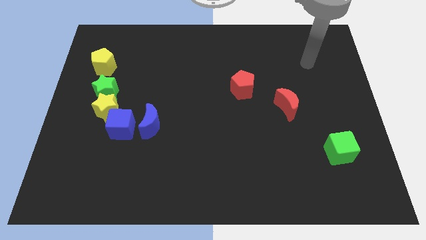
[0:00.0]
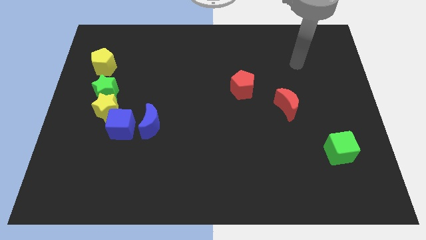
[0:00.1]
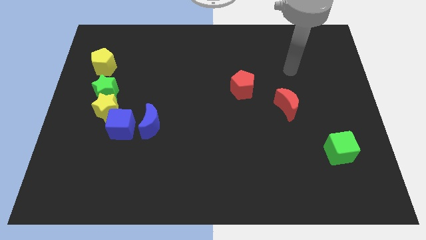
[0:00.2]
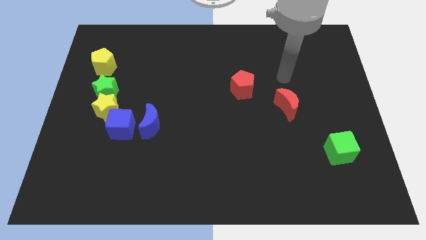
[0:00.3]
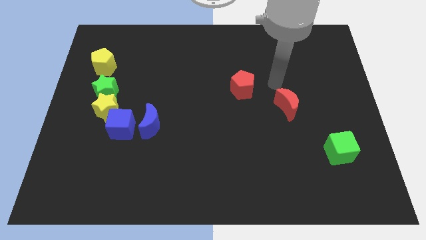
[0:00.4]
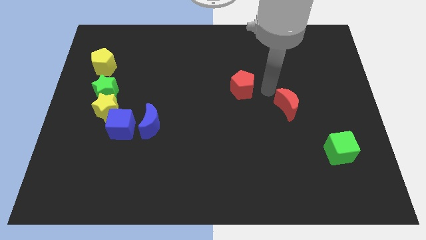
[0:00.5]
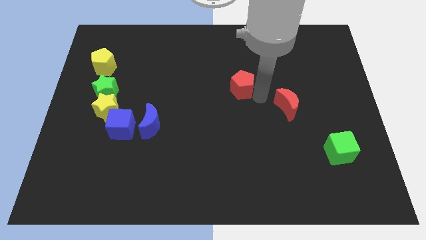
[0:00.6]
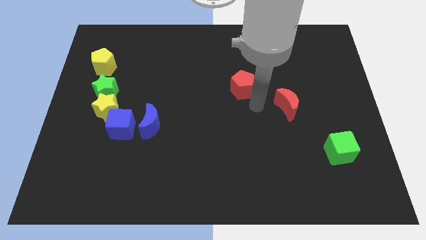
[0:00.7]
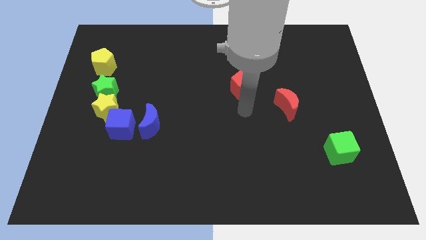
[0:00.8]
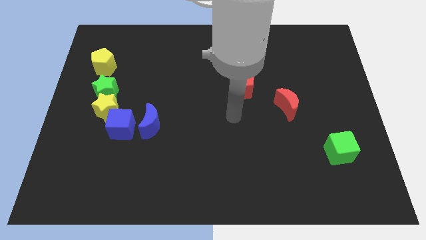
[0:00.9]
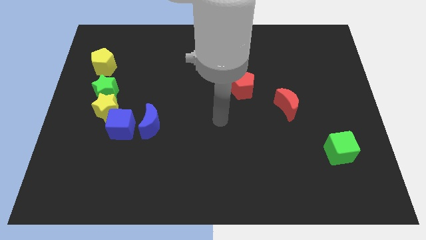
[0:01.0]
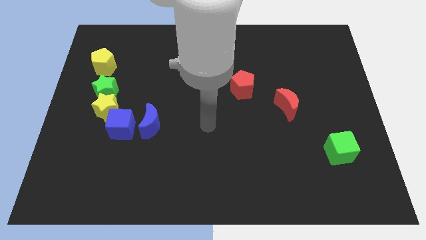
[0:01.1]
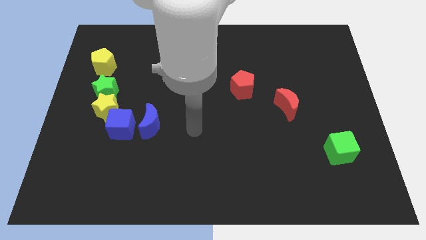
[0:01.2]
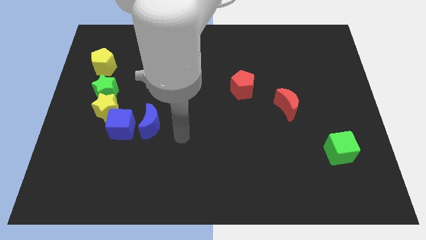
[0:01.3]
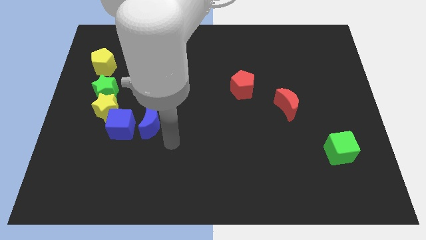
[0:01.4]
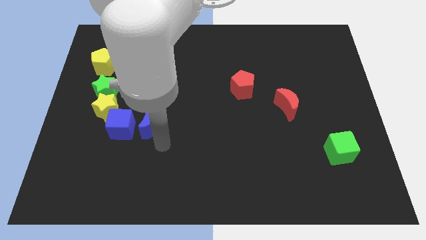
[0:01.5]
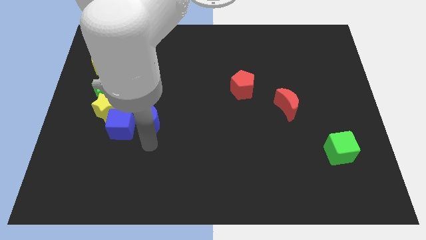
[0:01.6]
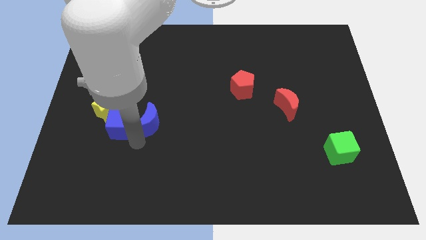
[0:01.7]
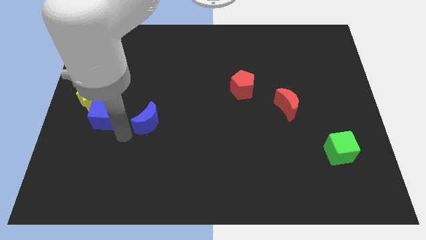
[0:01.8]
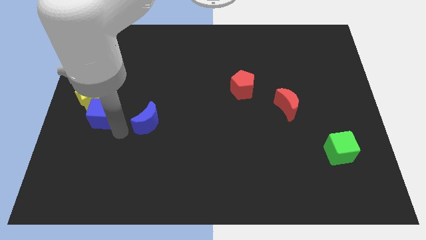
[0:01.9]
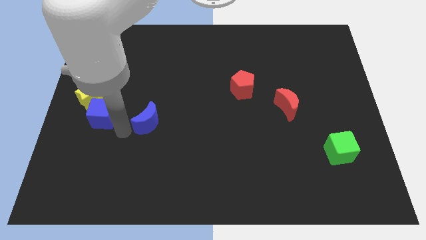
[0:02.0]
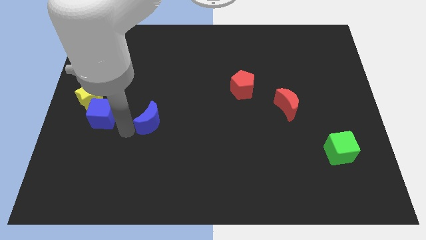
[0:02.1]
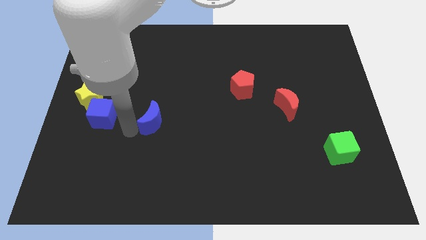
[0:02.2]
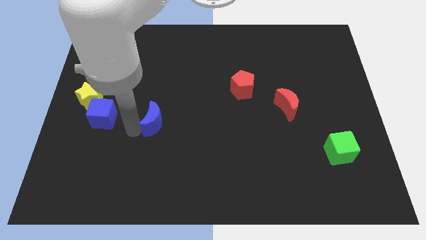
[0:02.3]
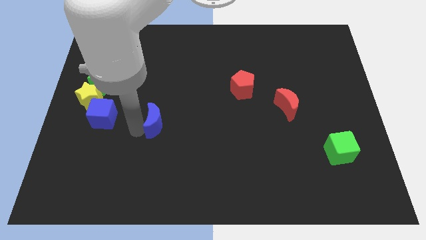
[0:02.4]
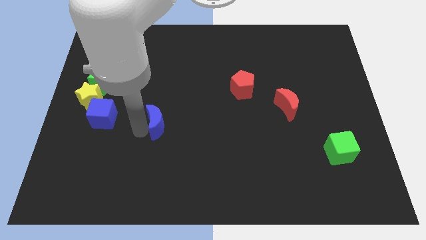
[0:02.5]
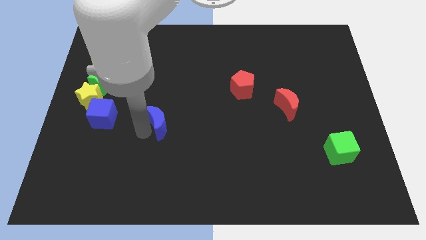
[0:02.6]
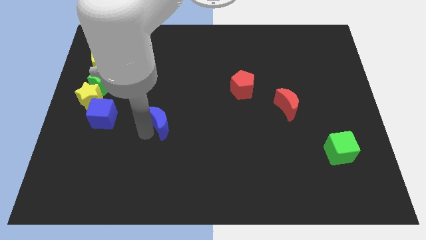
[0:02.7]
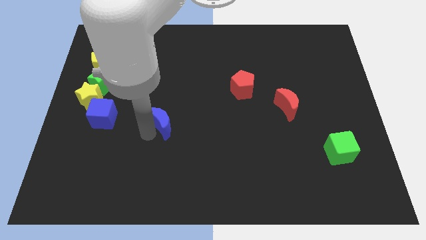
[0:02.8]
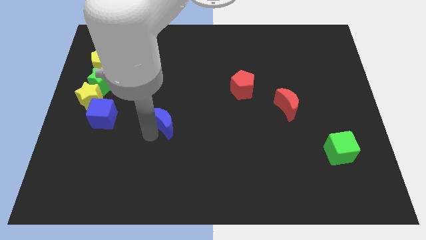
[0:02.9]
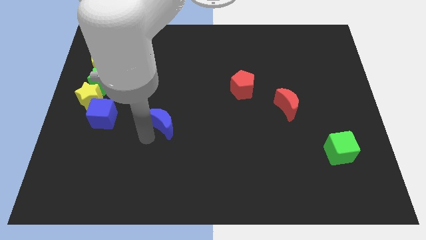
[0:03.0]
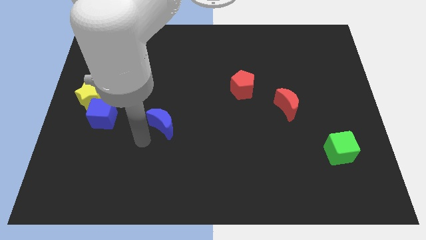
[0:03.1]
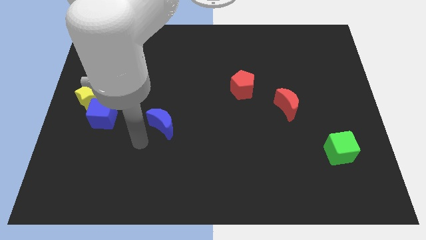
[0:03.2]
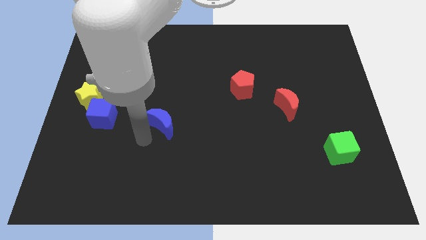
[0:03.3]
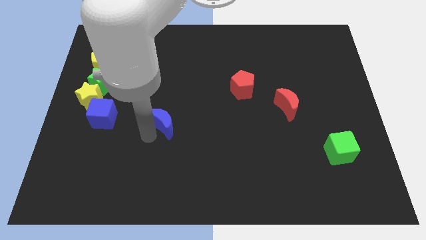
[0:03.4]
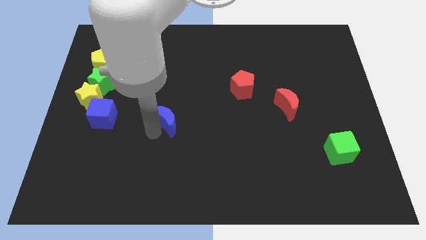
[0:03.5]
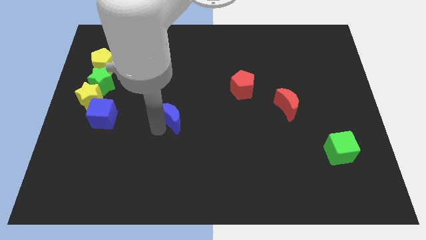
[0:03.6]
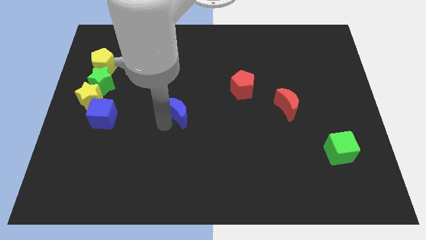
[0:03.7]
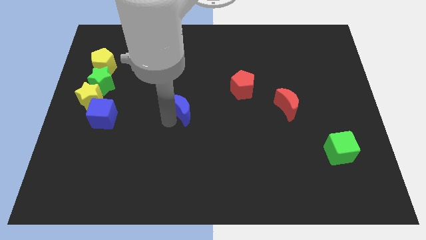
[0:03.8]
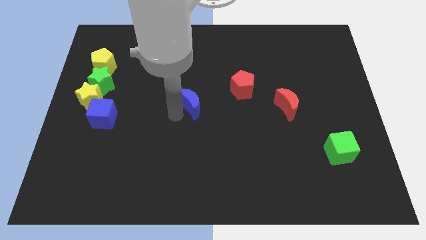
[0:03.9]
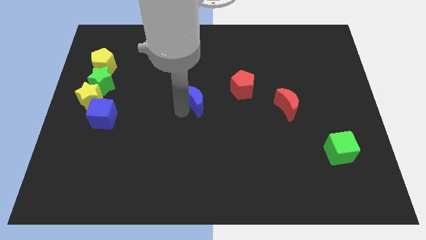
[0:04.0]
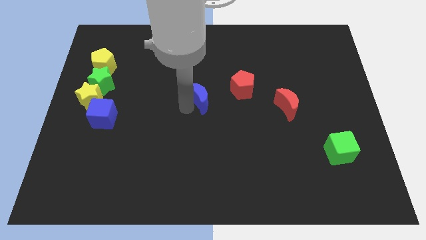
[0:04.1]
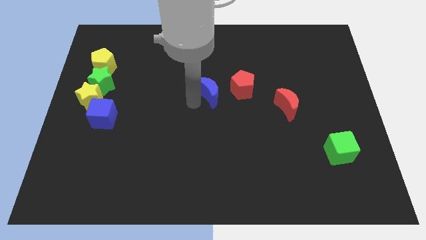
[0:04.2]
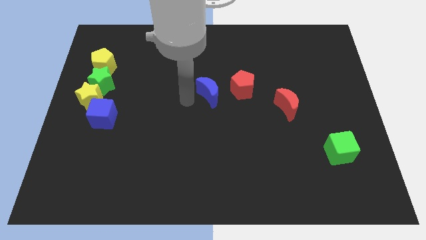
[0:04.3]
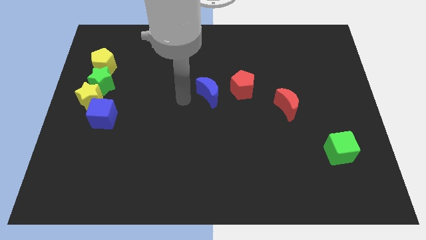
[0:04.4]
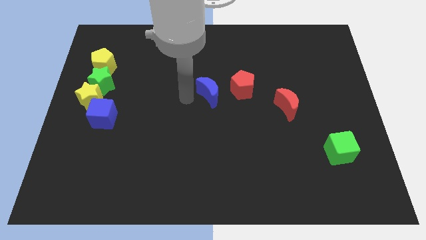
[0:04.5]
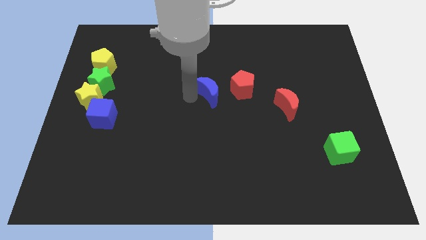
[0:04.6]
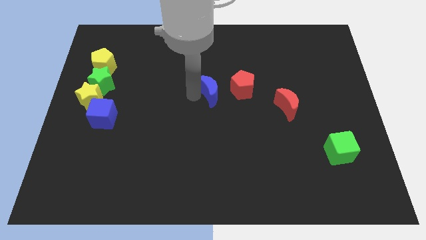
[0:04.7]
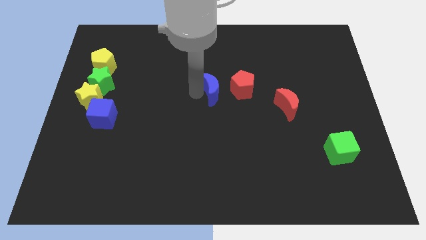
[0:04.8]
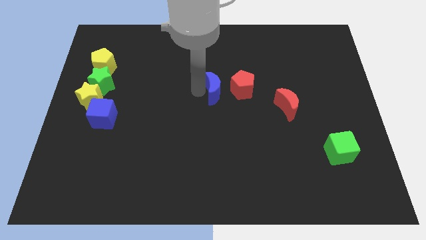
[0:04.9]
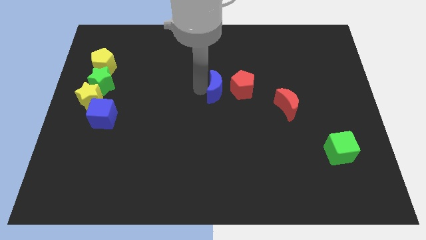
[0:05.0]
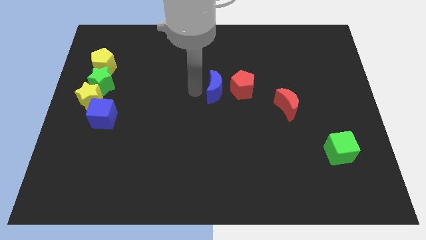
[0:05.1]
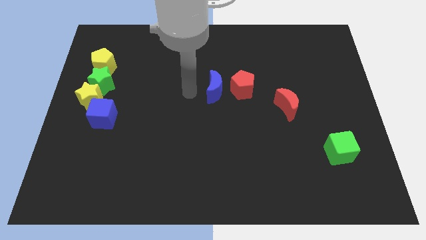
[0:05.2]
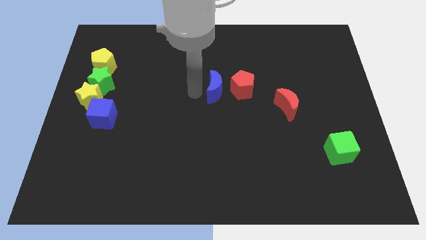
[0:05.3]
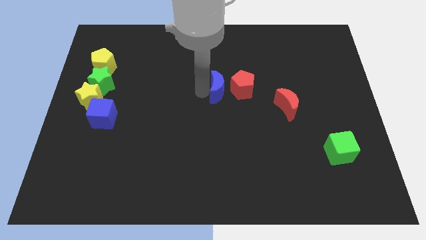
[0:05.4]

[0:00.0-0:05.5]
slide the blue moon close to the red pentagon

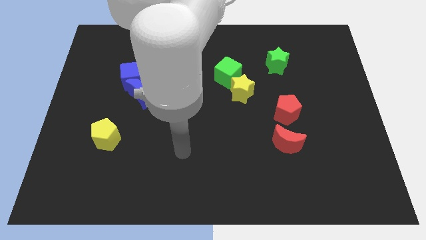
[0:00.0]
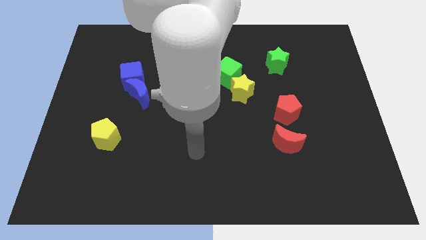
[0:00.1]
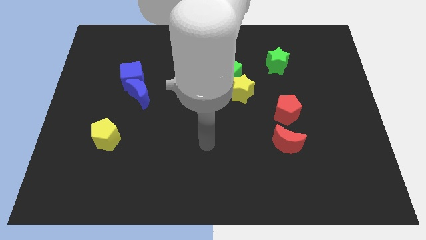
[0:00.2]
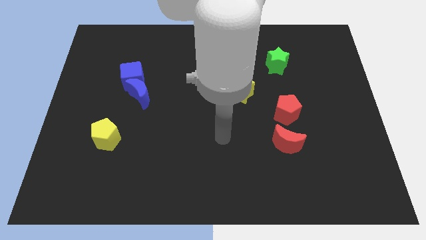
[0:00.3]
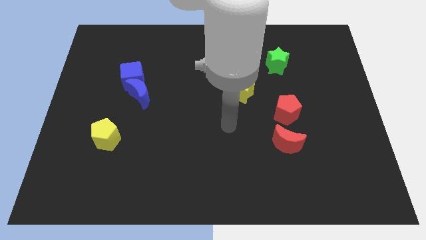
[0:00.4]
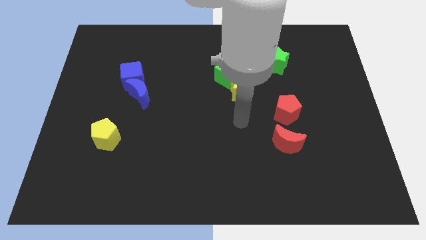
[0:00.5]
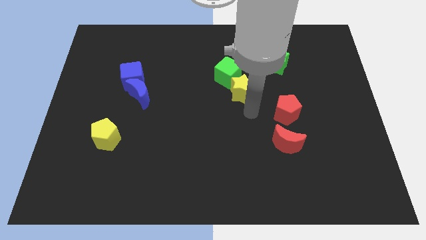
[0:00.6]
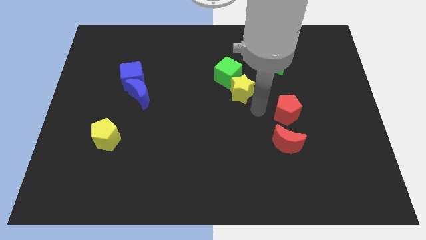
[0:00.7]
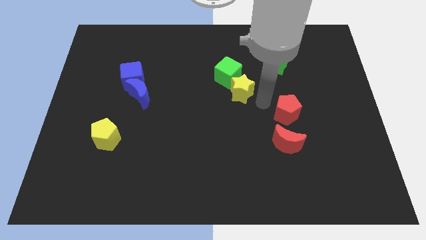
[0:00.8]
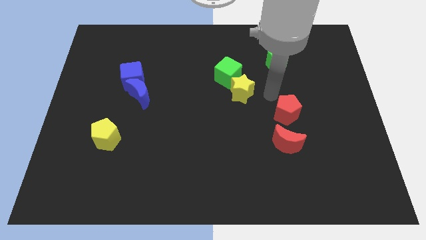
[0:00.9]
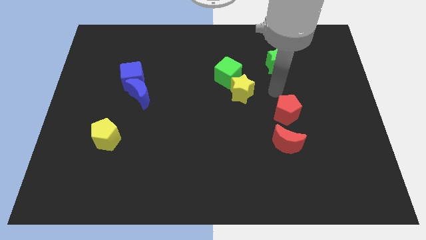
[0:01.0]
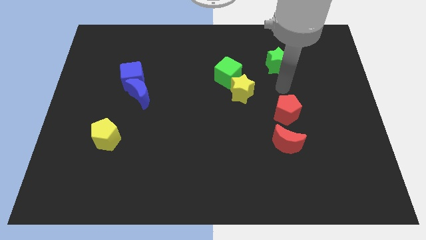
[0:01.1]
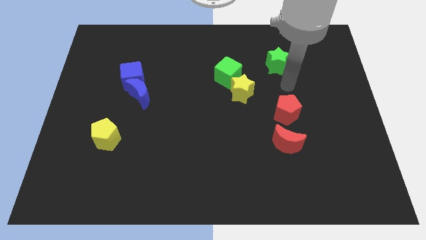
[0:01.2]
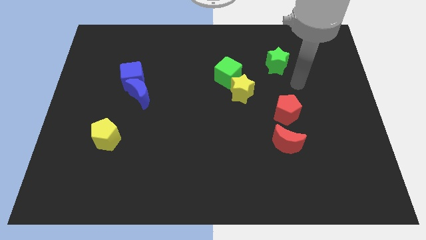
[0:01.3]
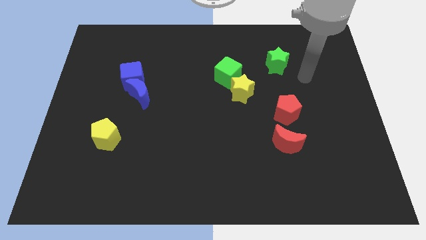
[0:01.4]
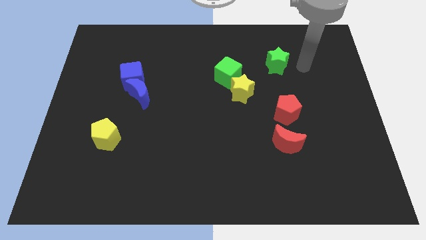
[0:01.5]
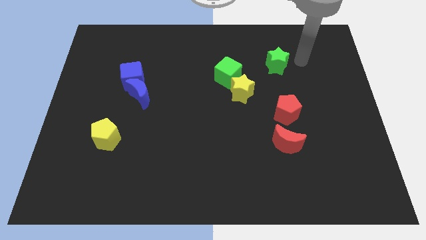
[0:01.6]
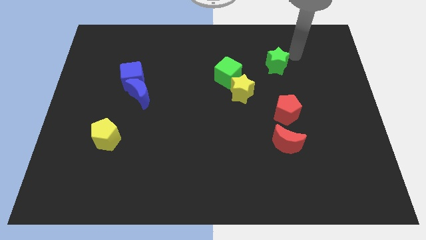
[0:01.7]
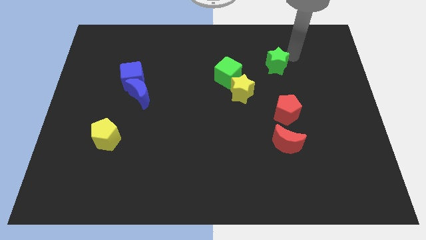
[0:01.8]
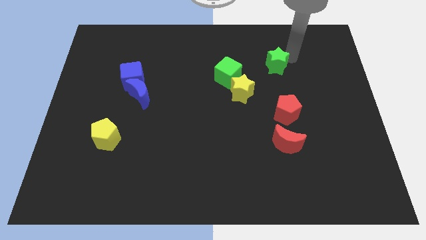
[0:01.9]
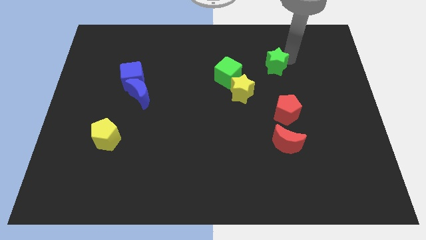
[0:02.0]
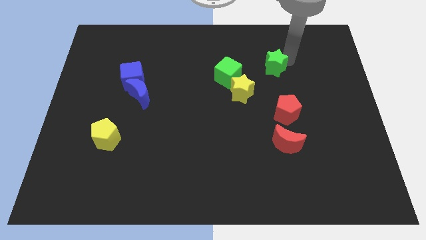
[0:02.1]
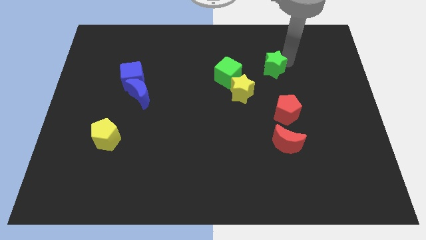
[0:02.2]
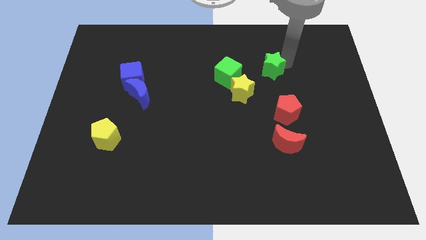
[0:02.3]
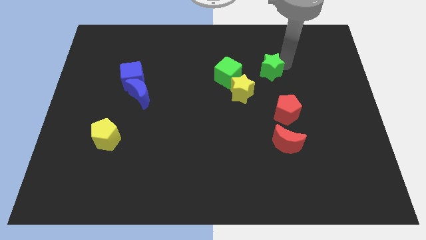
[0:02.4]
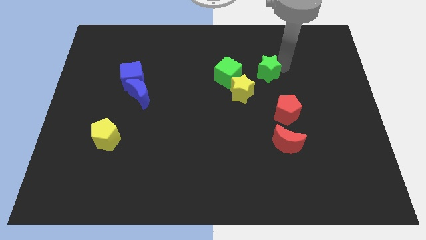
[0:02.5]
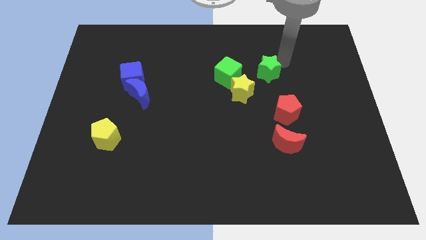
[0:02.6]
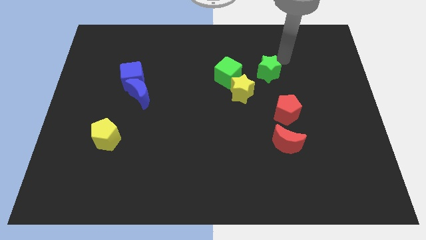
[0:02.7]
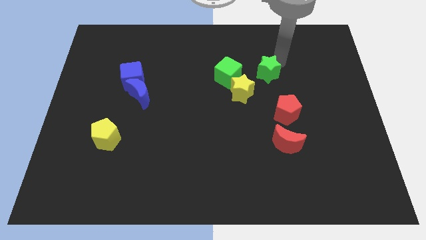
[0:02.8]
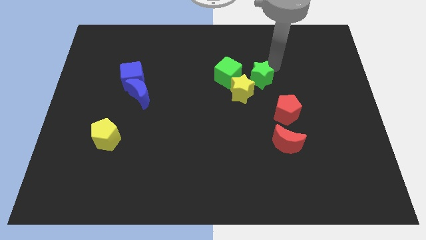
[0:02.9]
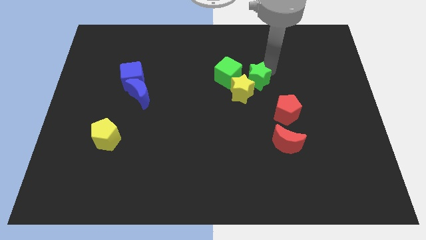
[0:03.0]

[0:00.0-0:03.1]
push the green star to the yellow star
